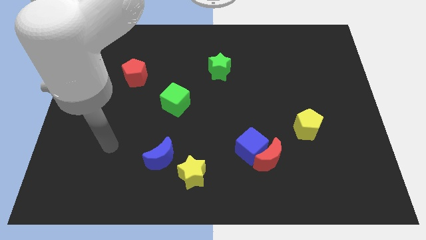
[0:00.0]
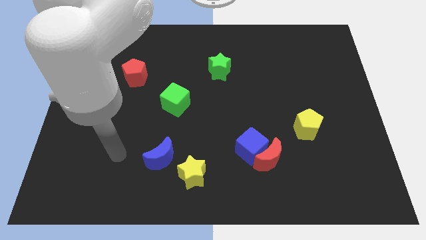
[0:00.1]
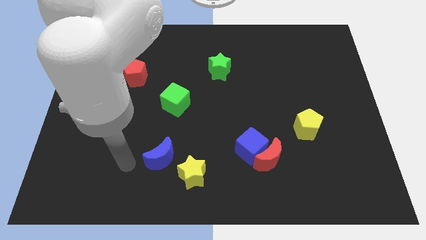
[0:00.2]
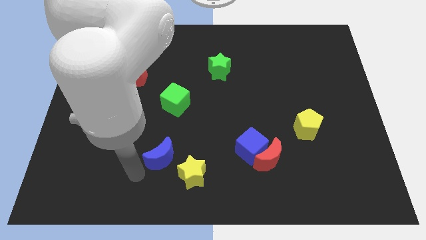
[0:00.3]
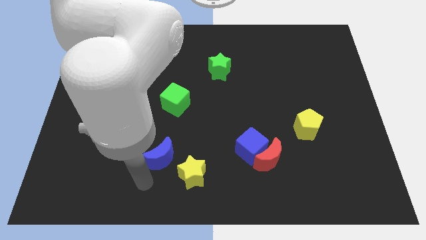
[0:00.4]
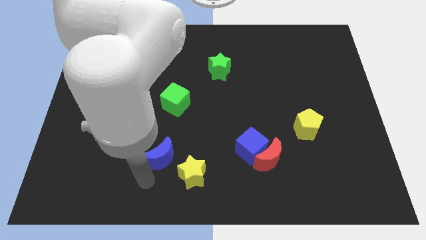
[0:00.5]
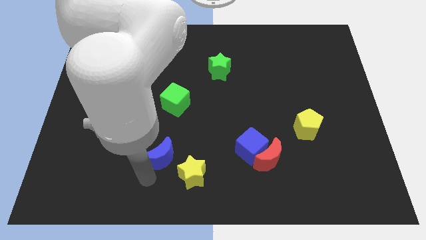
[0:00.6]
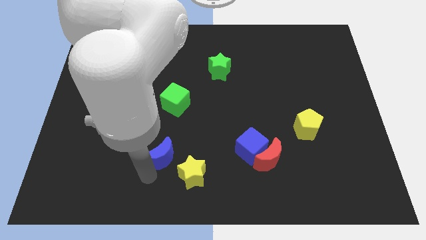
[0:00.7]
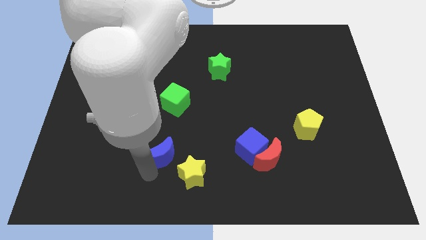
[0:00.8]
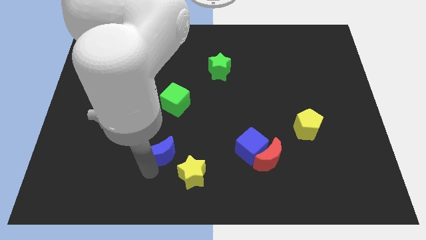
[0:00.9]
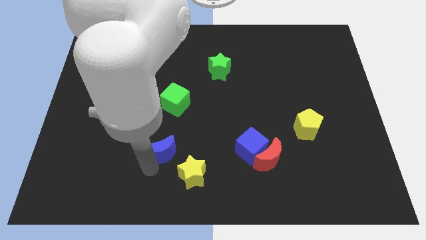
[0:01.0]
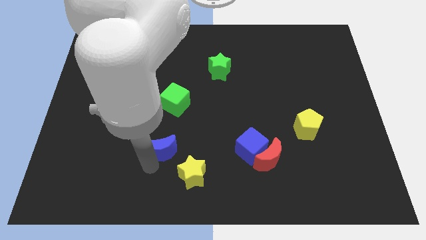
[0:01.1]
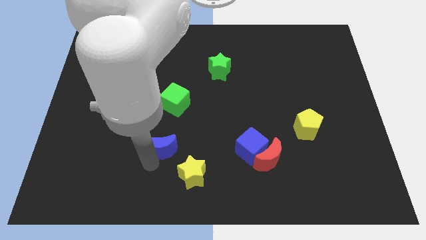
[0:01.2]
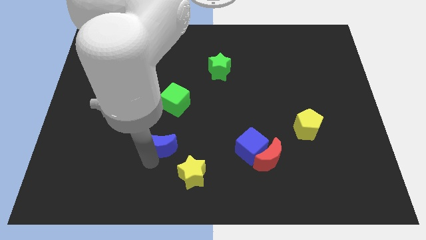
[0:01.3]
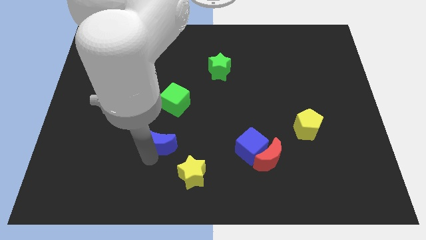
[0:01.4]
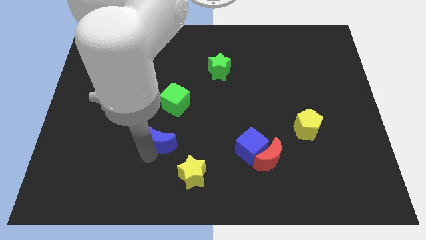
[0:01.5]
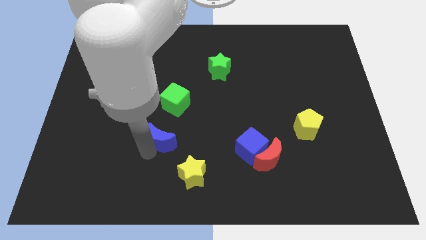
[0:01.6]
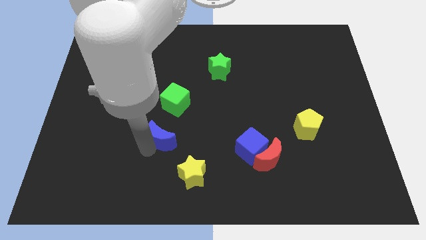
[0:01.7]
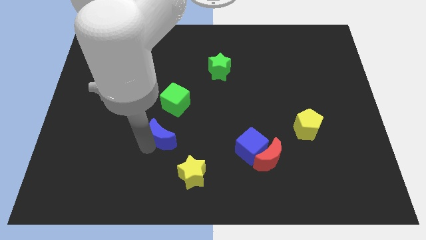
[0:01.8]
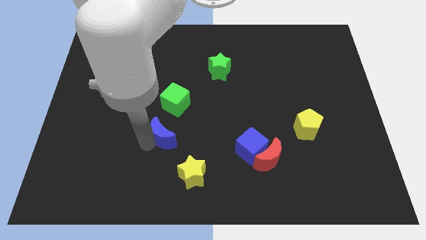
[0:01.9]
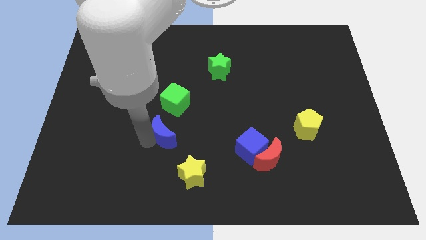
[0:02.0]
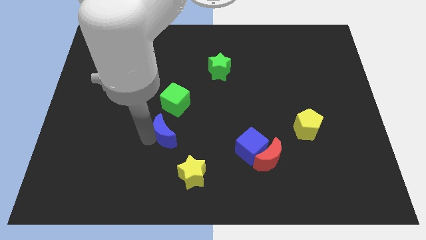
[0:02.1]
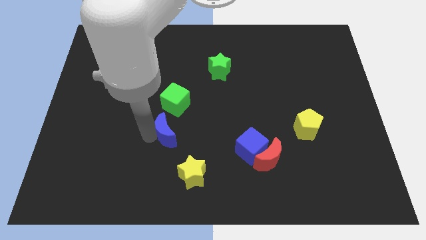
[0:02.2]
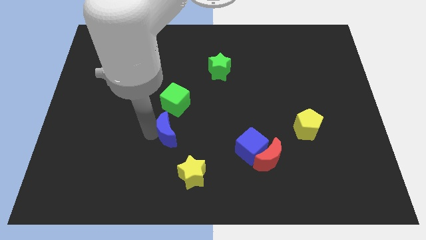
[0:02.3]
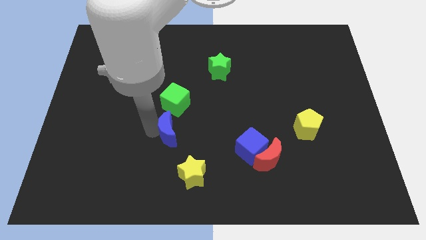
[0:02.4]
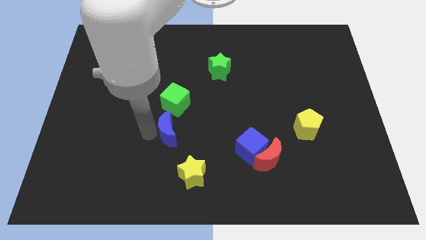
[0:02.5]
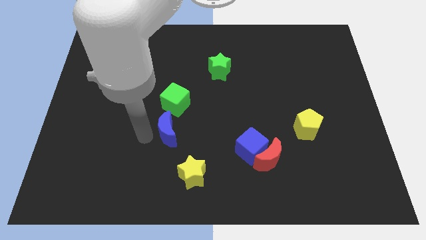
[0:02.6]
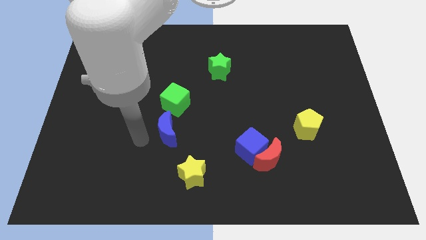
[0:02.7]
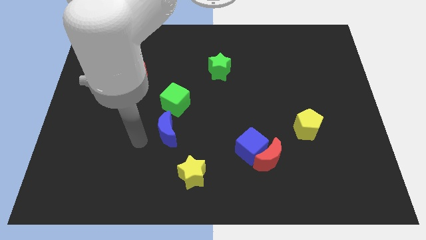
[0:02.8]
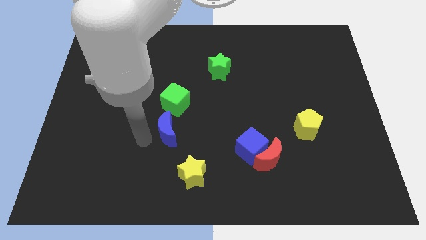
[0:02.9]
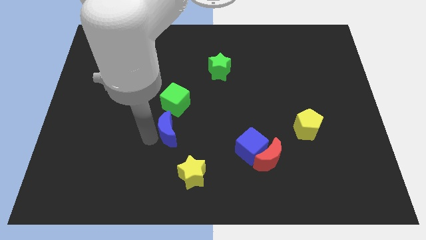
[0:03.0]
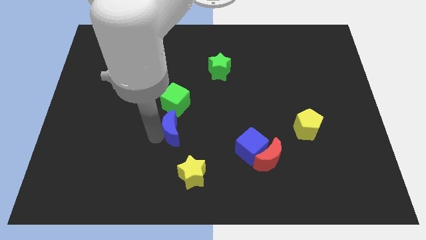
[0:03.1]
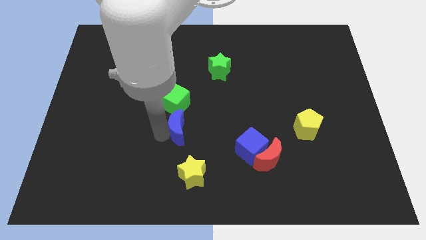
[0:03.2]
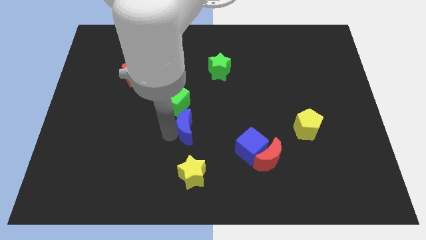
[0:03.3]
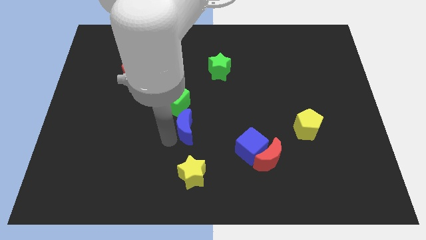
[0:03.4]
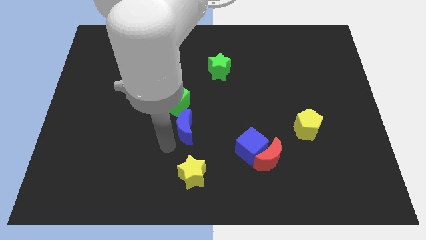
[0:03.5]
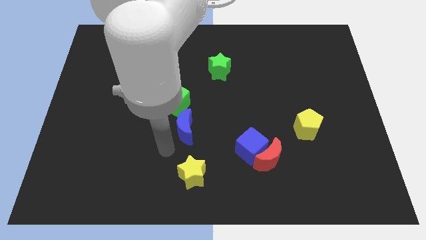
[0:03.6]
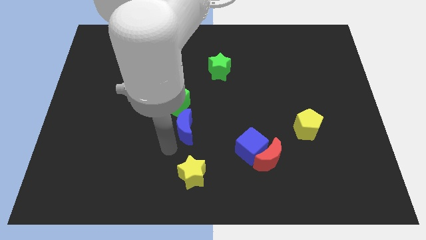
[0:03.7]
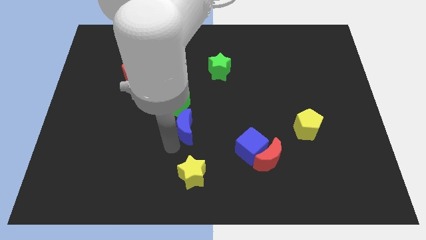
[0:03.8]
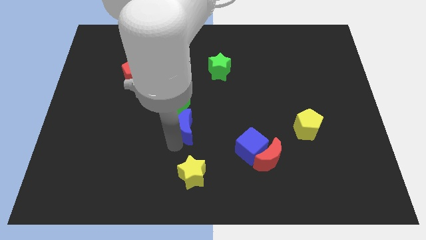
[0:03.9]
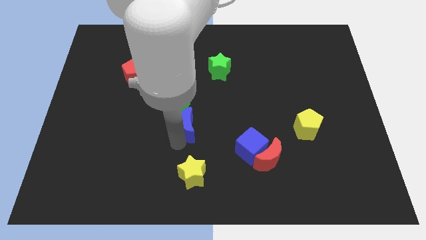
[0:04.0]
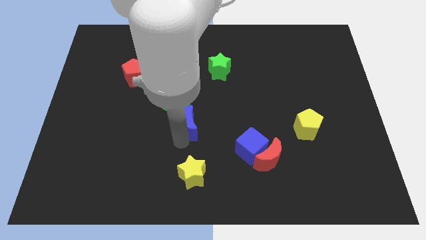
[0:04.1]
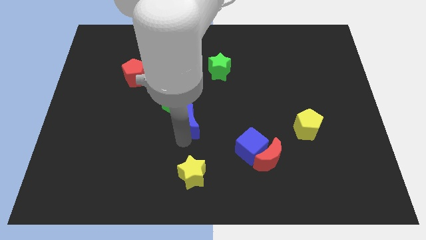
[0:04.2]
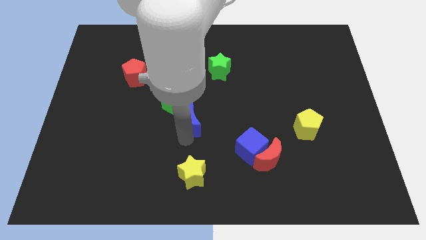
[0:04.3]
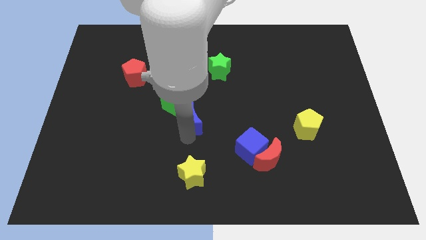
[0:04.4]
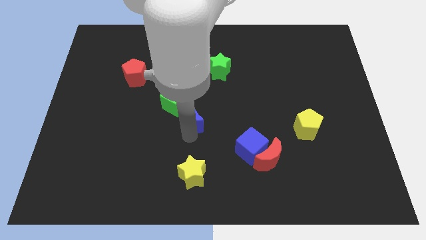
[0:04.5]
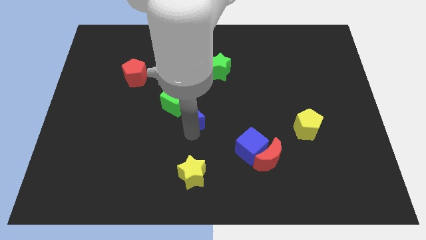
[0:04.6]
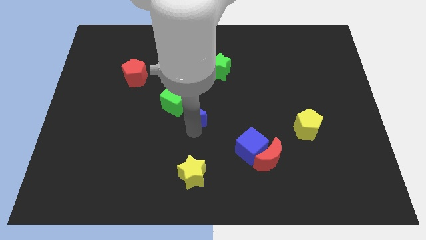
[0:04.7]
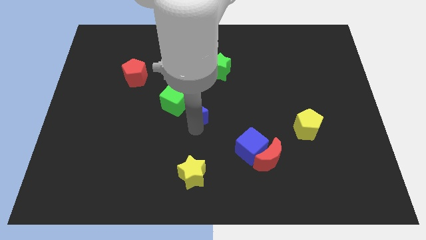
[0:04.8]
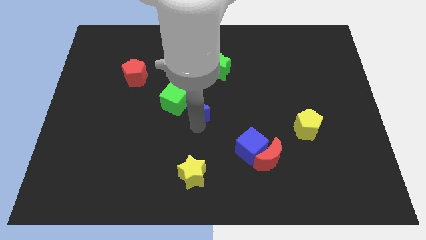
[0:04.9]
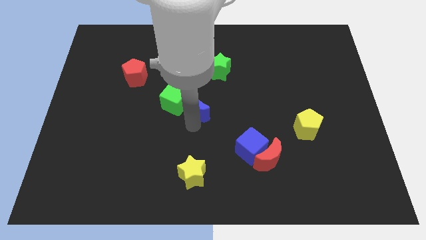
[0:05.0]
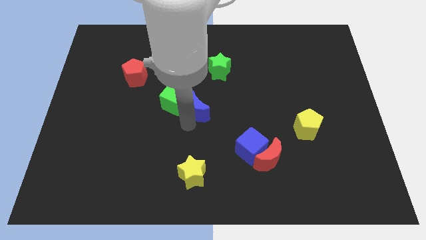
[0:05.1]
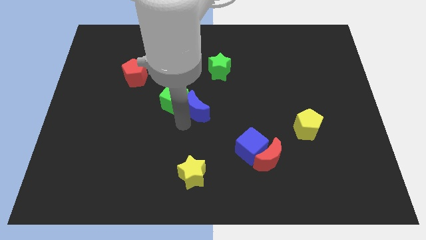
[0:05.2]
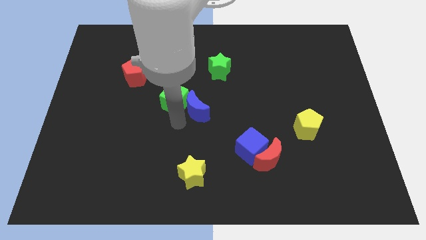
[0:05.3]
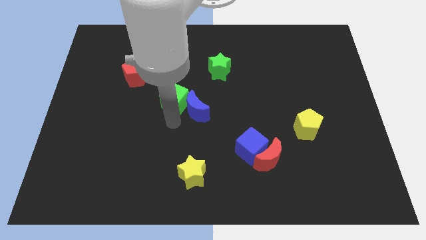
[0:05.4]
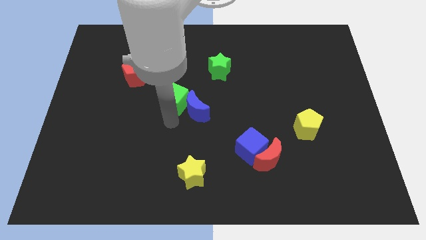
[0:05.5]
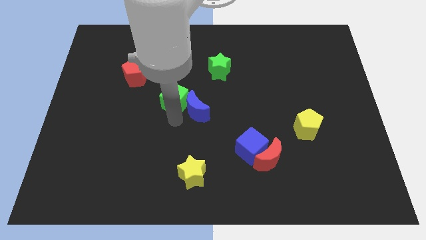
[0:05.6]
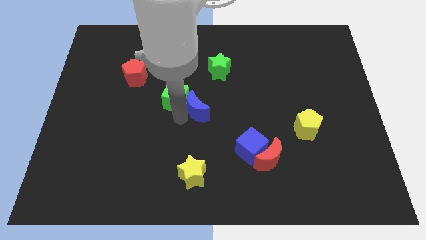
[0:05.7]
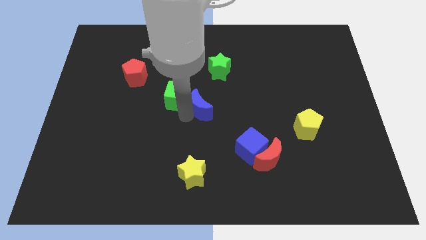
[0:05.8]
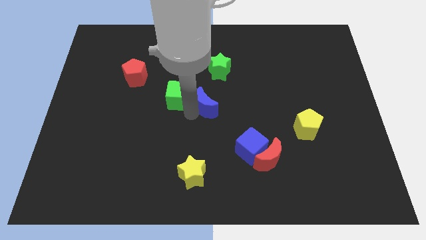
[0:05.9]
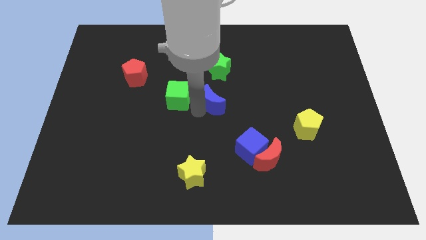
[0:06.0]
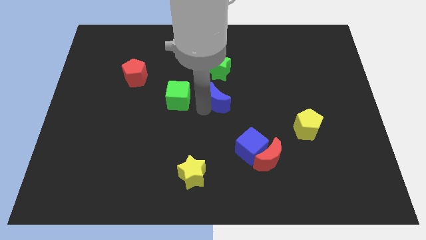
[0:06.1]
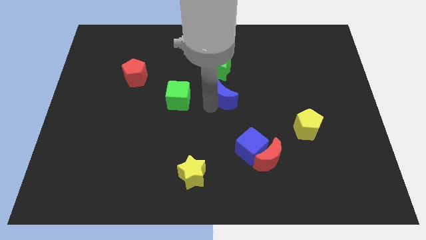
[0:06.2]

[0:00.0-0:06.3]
move the blue moon upwards and right diagonally

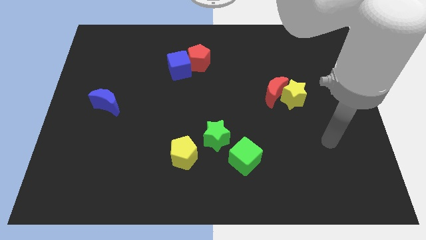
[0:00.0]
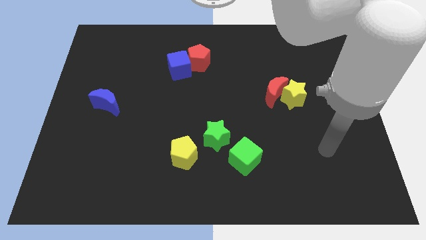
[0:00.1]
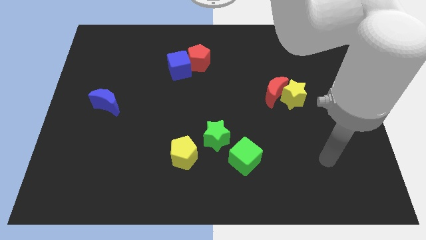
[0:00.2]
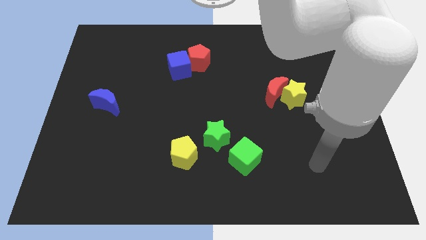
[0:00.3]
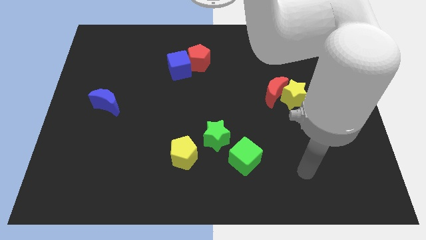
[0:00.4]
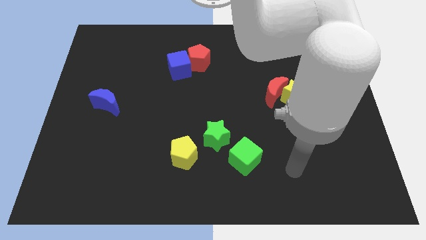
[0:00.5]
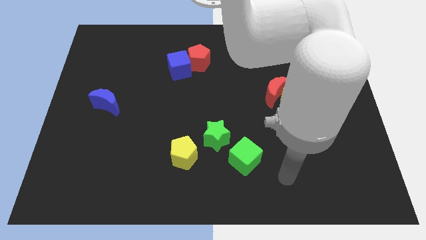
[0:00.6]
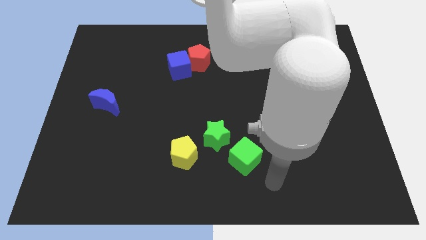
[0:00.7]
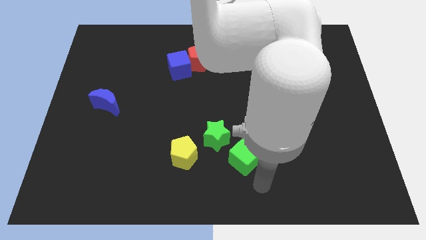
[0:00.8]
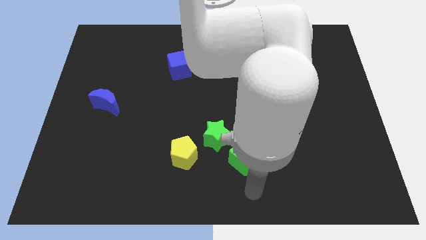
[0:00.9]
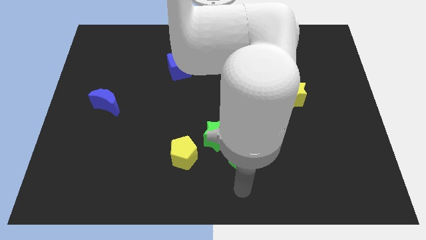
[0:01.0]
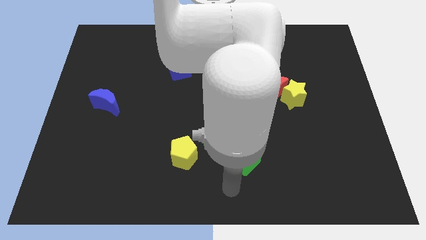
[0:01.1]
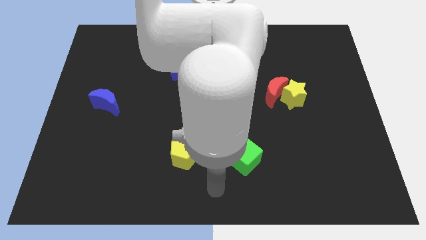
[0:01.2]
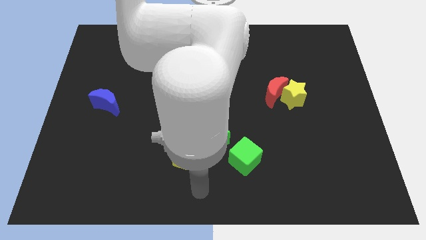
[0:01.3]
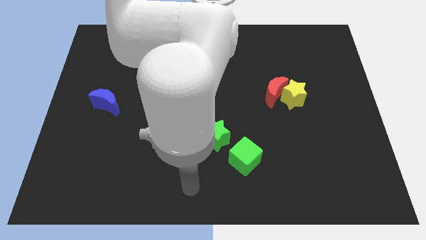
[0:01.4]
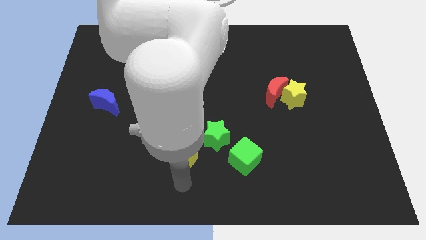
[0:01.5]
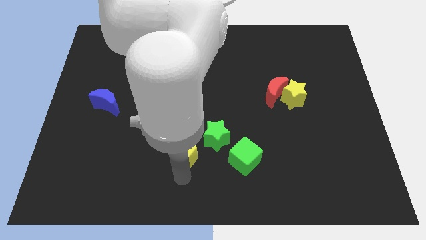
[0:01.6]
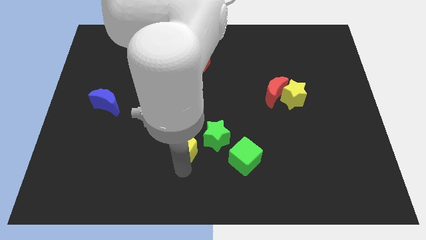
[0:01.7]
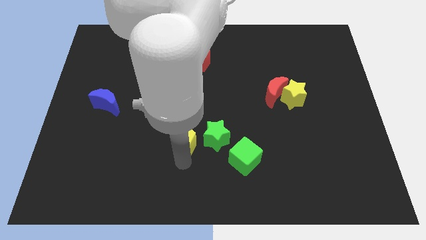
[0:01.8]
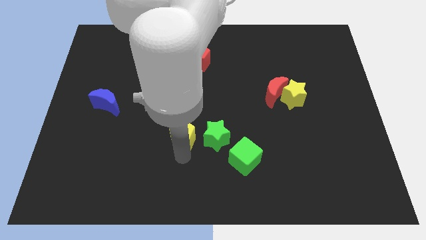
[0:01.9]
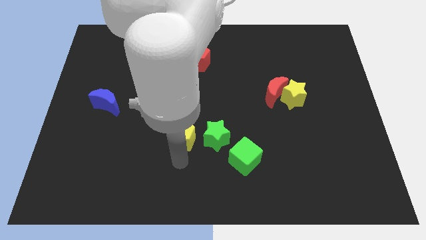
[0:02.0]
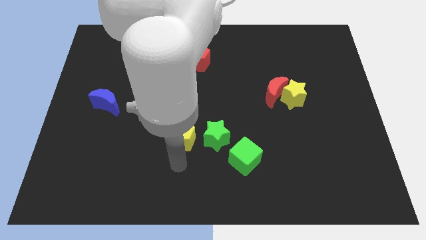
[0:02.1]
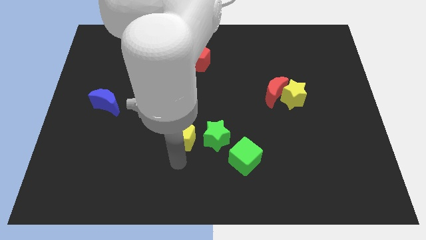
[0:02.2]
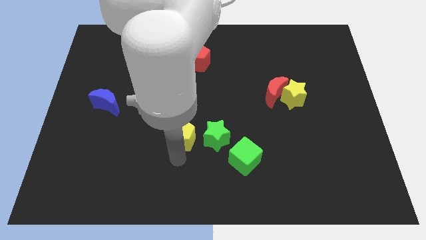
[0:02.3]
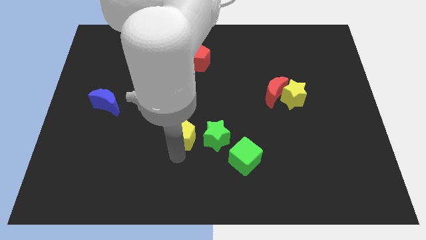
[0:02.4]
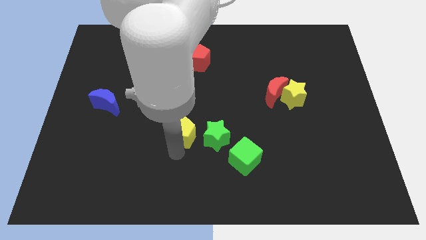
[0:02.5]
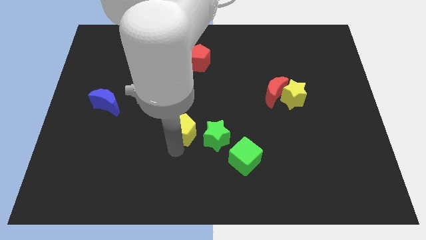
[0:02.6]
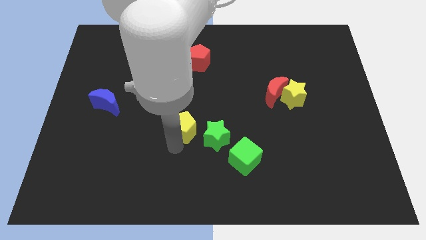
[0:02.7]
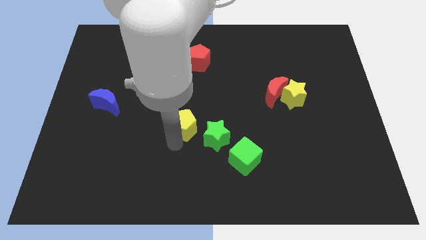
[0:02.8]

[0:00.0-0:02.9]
slightly move the yellow pentagon upwards
